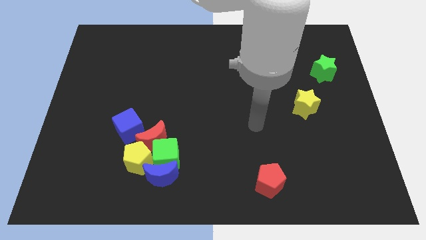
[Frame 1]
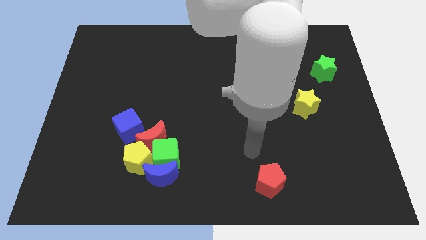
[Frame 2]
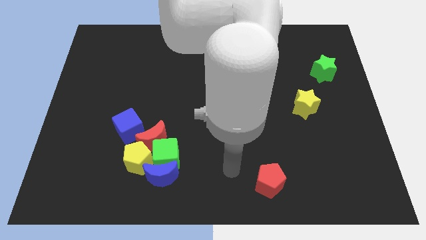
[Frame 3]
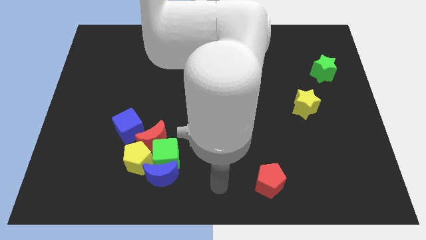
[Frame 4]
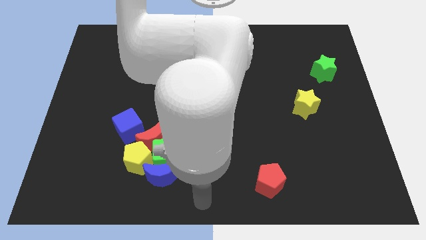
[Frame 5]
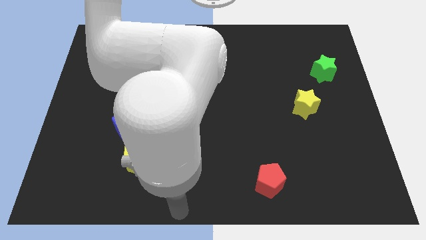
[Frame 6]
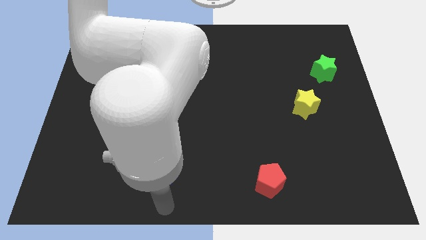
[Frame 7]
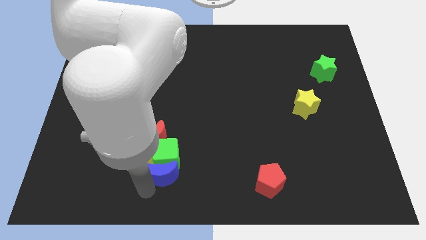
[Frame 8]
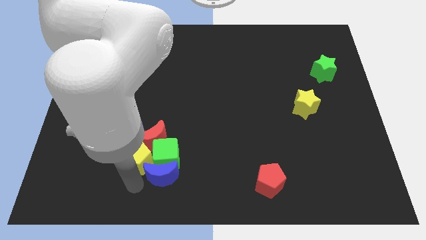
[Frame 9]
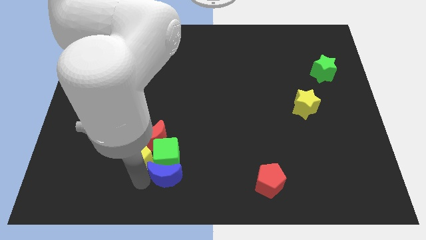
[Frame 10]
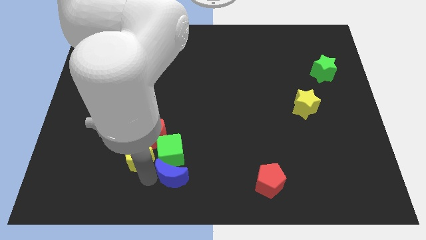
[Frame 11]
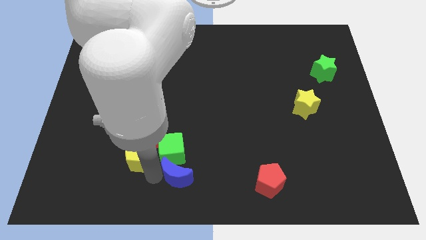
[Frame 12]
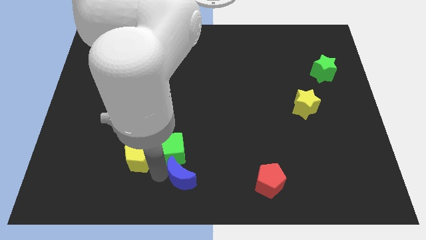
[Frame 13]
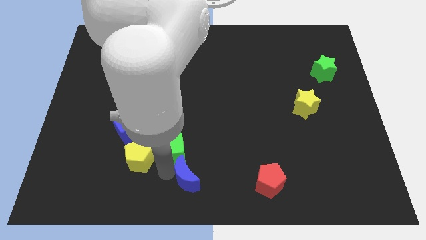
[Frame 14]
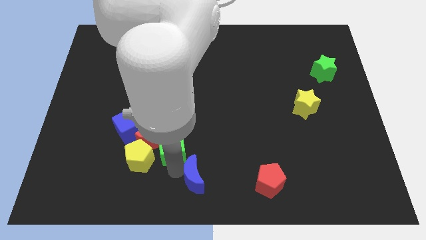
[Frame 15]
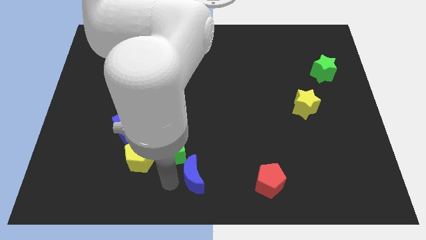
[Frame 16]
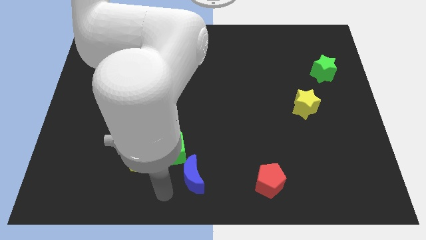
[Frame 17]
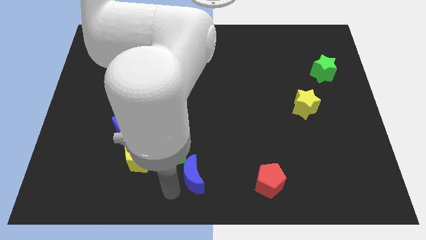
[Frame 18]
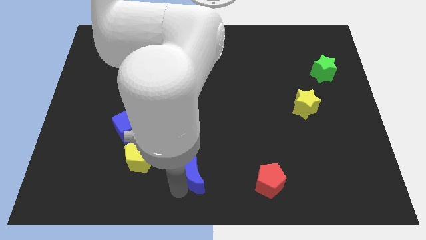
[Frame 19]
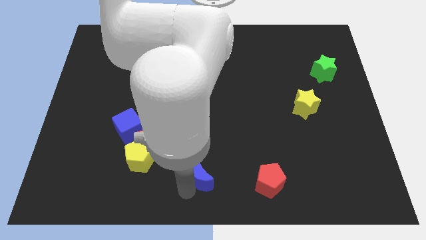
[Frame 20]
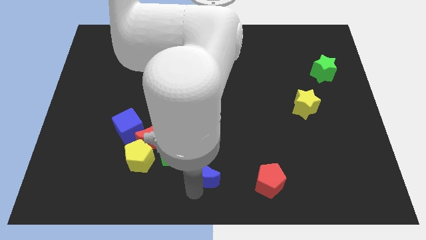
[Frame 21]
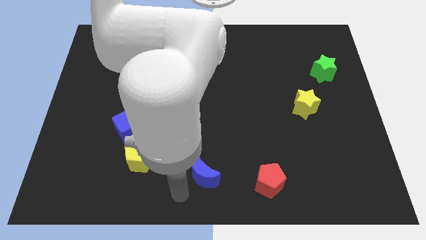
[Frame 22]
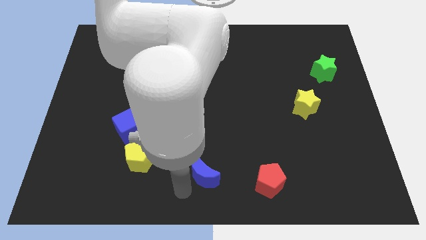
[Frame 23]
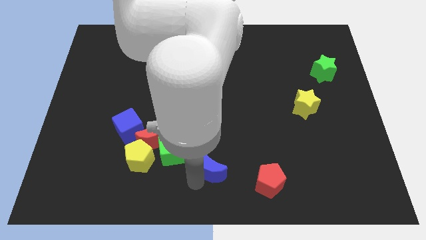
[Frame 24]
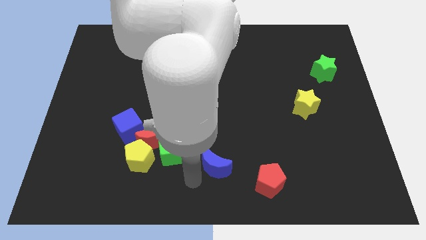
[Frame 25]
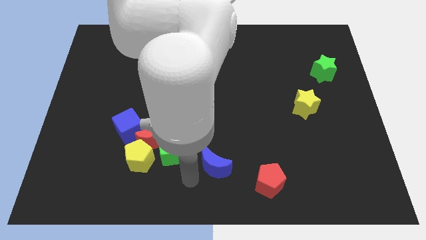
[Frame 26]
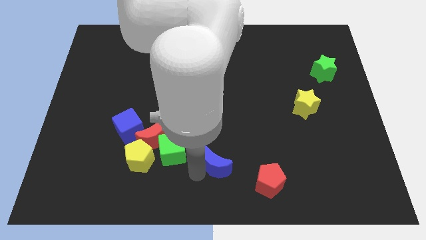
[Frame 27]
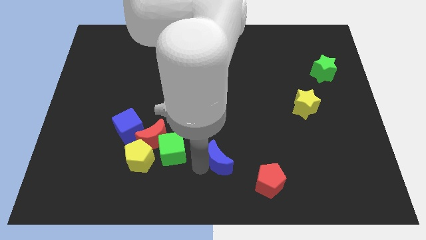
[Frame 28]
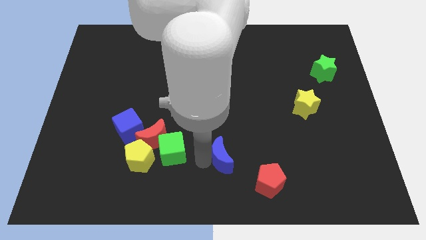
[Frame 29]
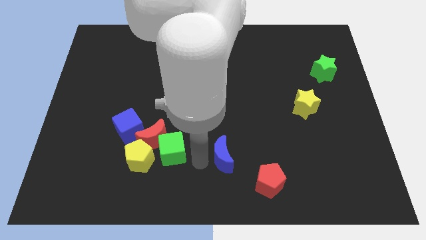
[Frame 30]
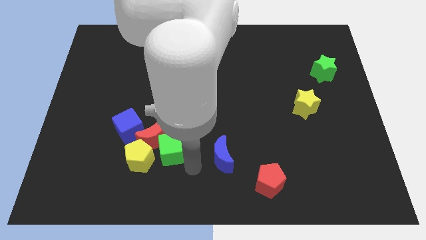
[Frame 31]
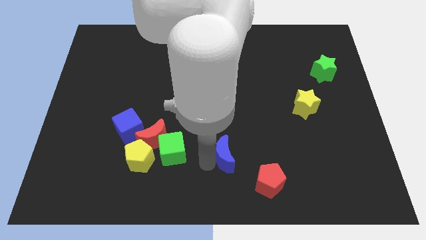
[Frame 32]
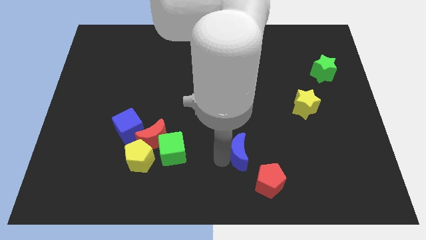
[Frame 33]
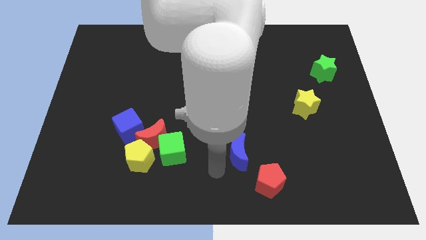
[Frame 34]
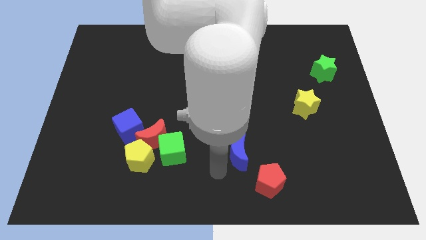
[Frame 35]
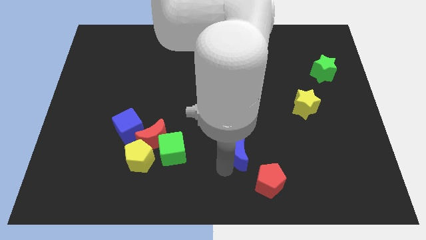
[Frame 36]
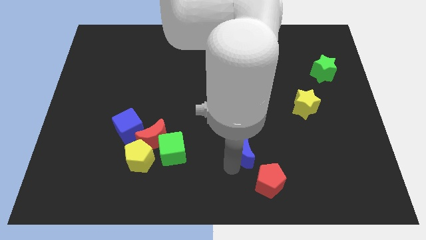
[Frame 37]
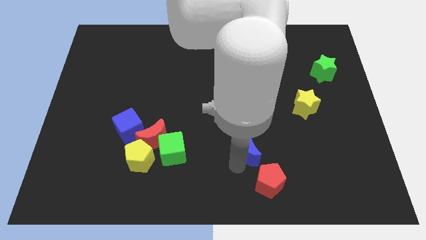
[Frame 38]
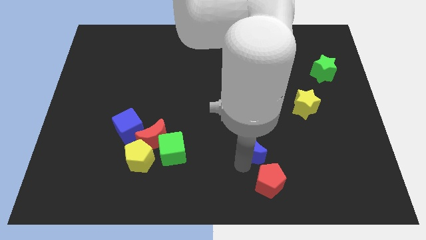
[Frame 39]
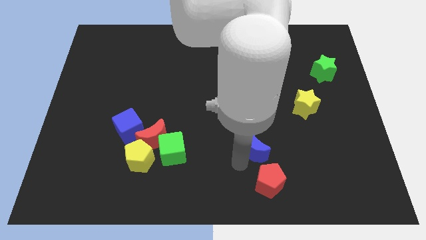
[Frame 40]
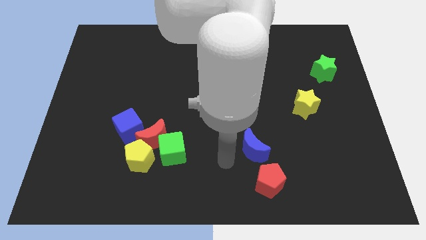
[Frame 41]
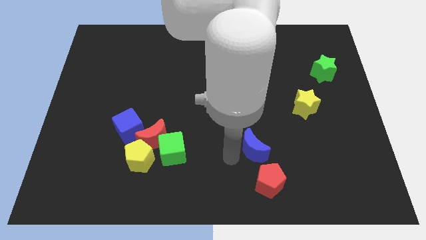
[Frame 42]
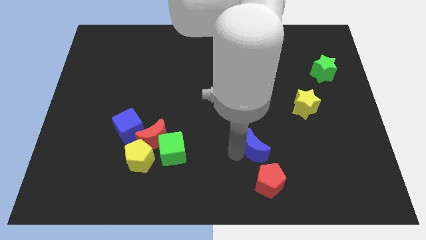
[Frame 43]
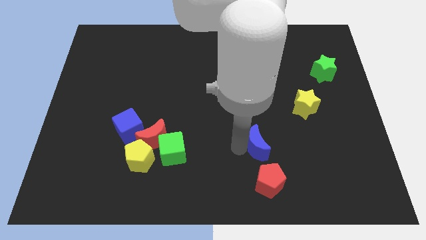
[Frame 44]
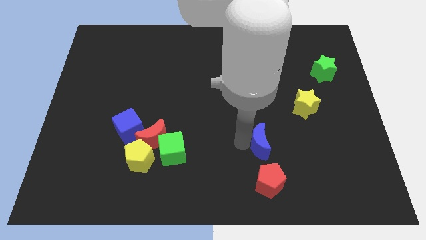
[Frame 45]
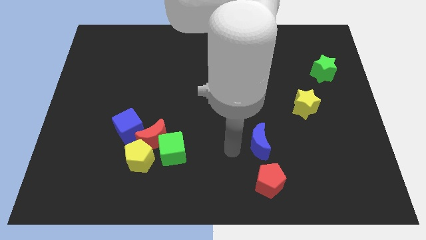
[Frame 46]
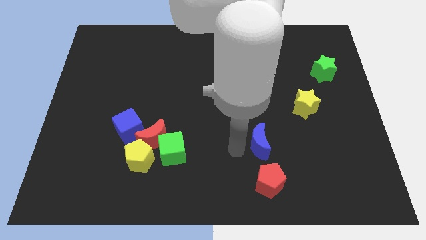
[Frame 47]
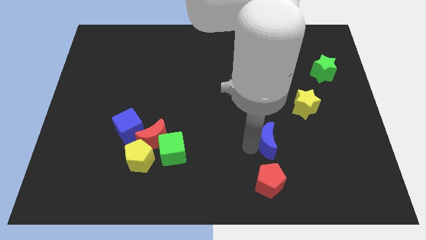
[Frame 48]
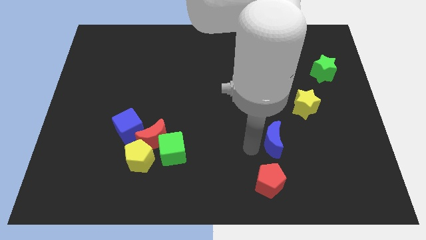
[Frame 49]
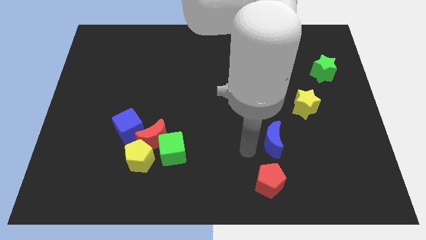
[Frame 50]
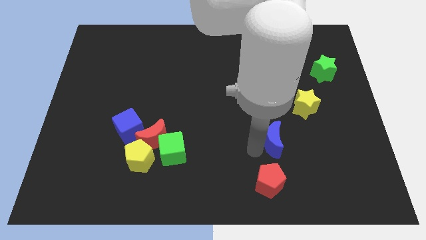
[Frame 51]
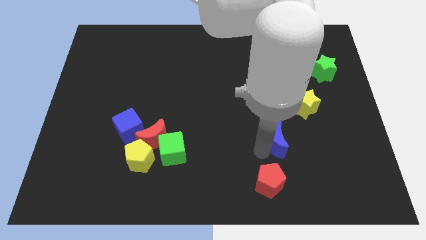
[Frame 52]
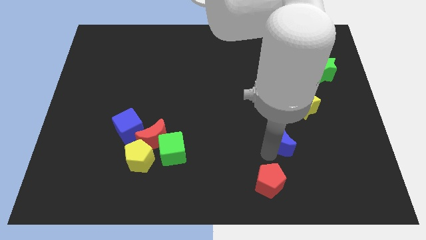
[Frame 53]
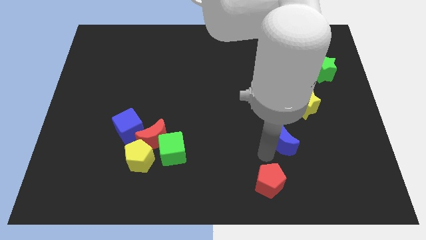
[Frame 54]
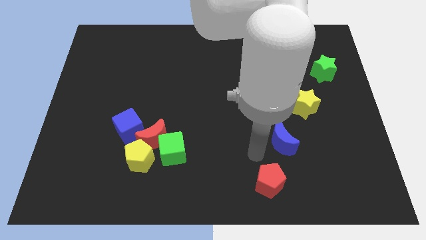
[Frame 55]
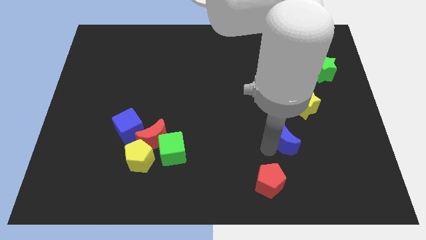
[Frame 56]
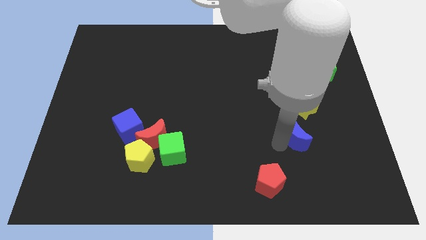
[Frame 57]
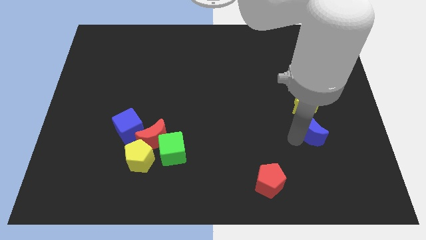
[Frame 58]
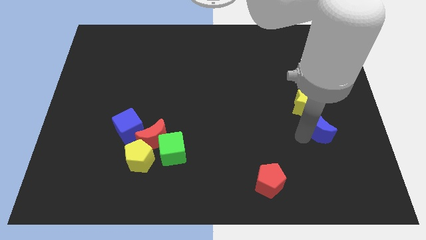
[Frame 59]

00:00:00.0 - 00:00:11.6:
put the blue moon diagonally down and to the right of the yellow star

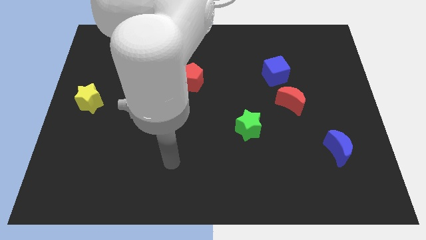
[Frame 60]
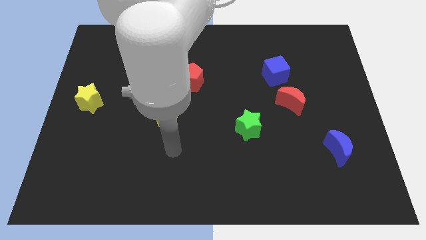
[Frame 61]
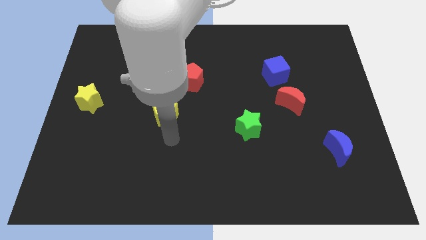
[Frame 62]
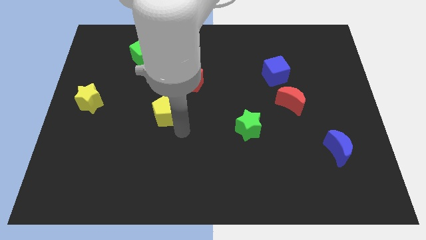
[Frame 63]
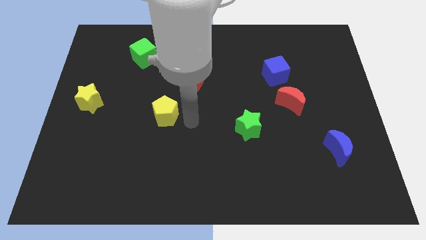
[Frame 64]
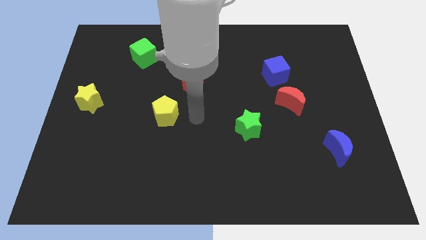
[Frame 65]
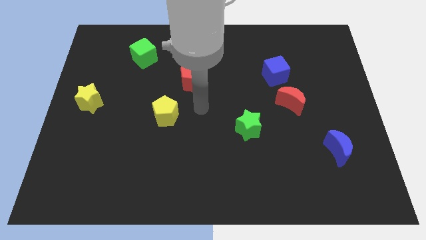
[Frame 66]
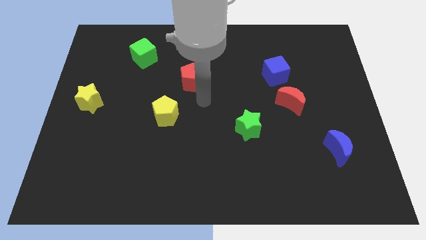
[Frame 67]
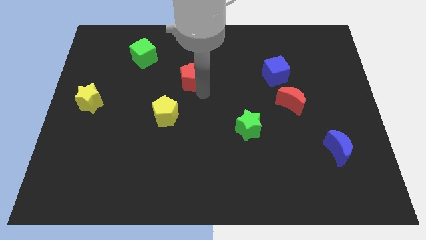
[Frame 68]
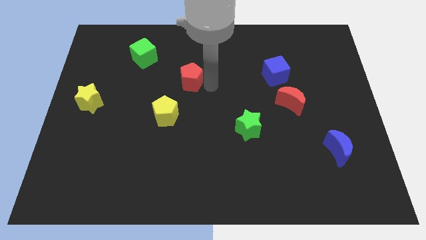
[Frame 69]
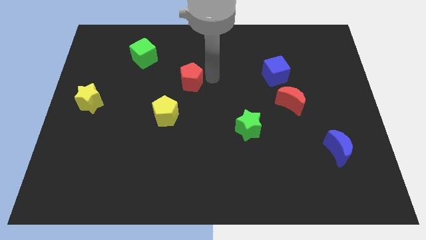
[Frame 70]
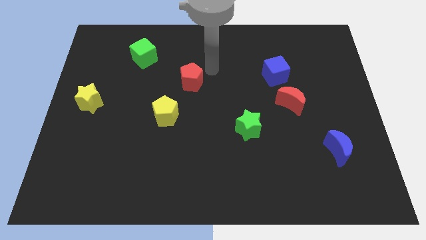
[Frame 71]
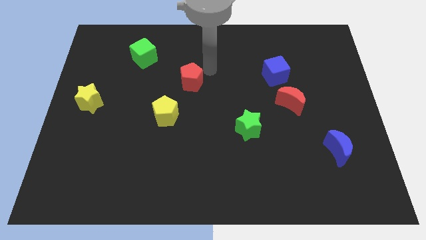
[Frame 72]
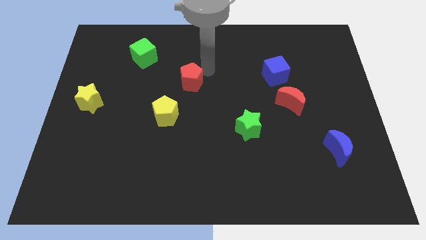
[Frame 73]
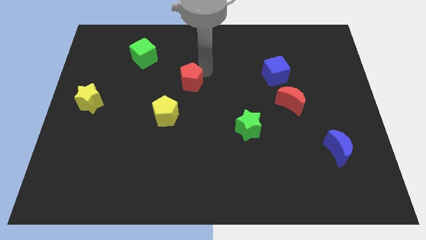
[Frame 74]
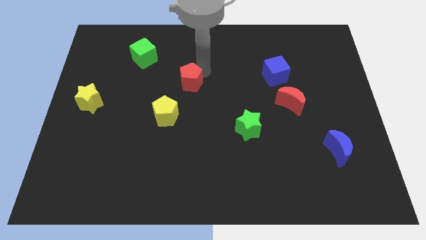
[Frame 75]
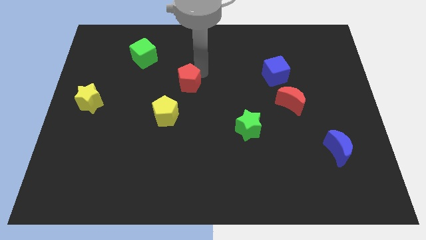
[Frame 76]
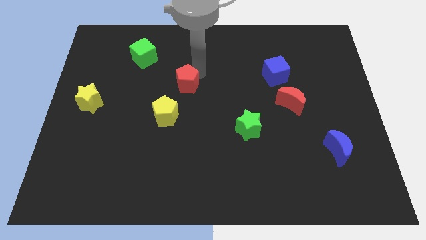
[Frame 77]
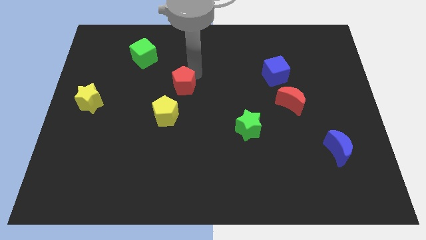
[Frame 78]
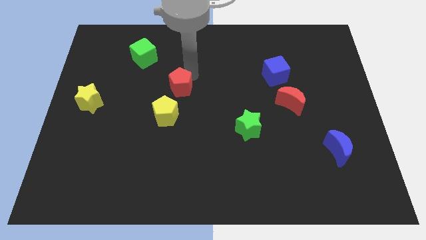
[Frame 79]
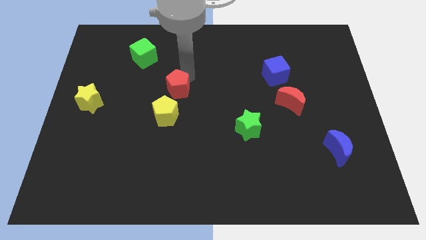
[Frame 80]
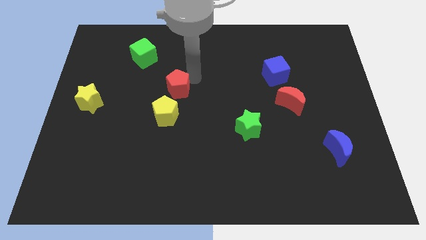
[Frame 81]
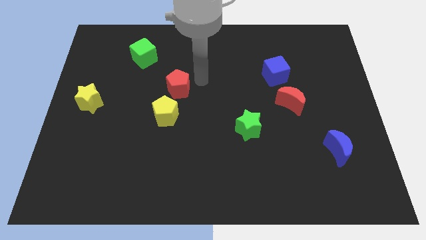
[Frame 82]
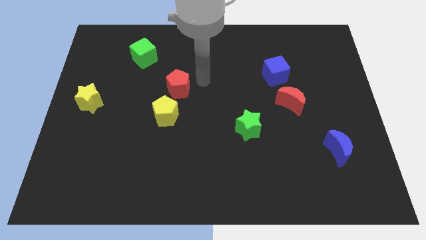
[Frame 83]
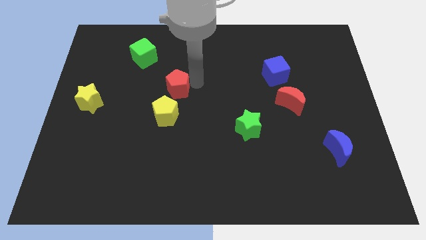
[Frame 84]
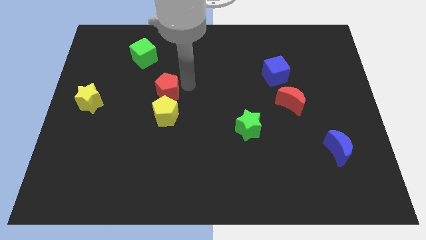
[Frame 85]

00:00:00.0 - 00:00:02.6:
push the red pentagon diagonally up and to the left of the yellow pentagon
